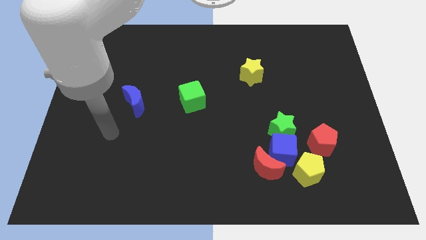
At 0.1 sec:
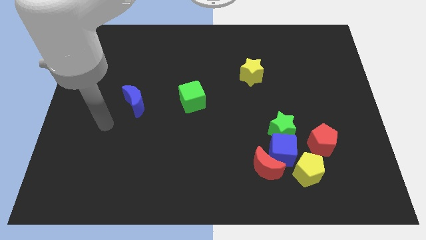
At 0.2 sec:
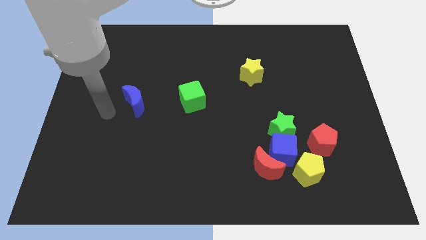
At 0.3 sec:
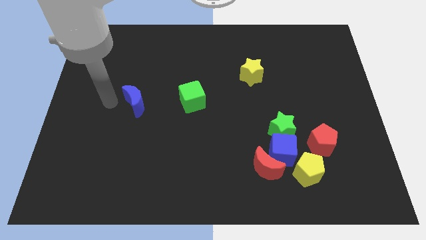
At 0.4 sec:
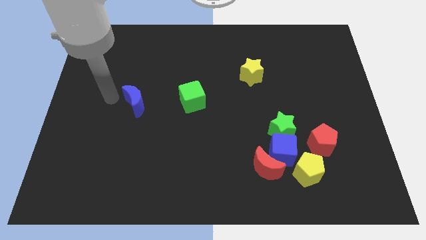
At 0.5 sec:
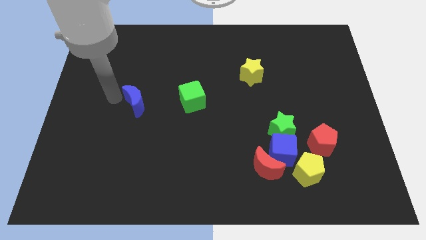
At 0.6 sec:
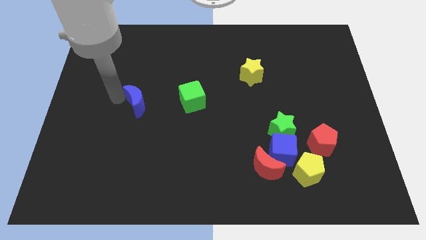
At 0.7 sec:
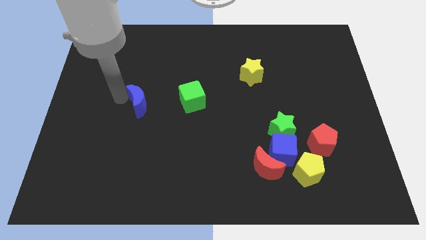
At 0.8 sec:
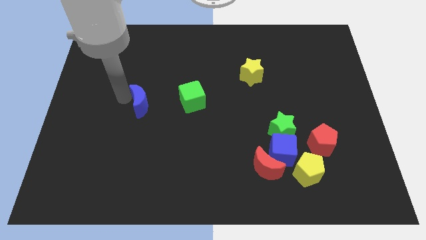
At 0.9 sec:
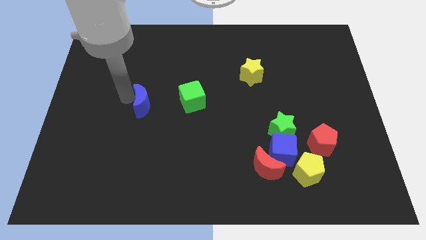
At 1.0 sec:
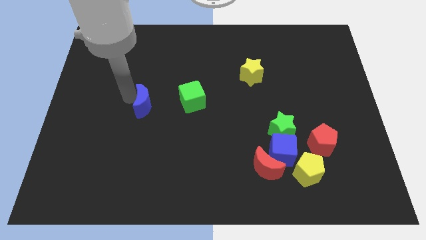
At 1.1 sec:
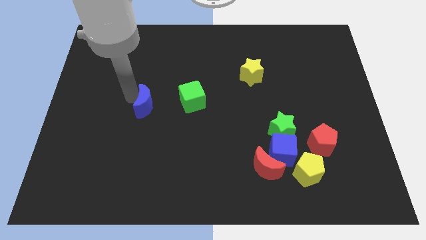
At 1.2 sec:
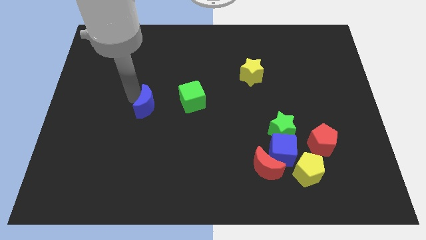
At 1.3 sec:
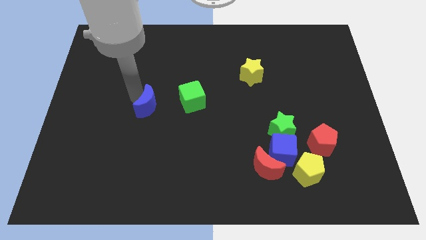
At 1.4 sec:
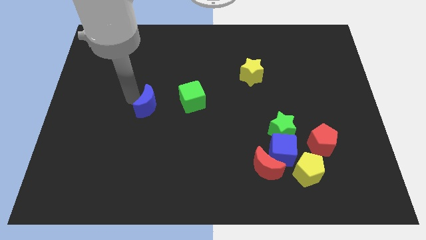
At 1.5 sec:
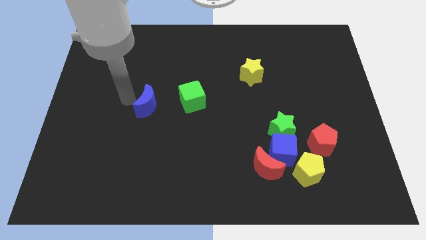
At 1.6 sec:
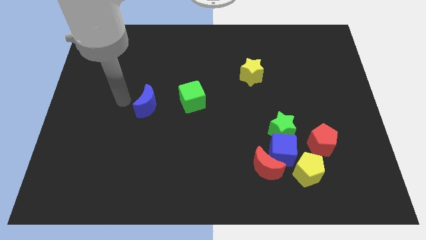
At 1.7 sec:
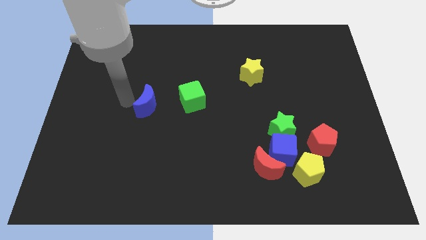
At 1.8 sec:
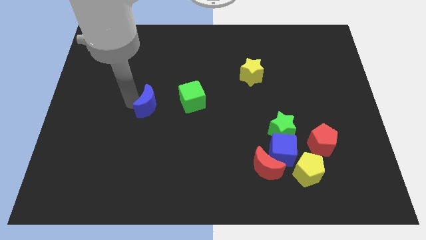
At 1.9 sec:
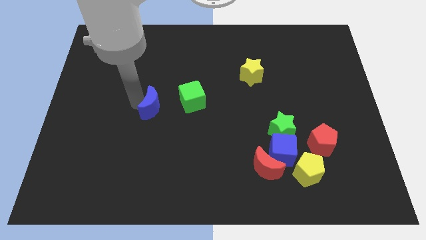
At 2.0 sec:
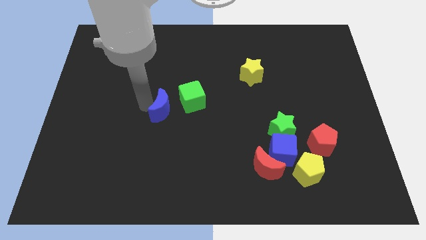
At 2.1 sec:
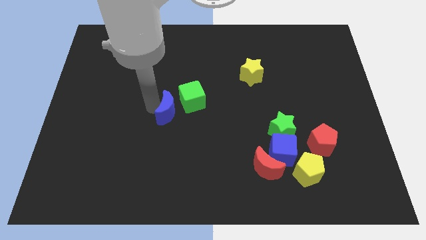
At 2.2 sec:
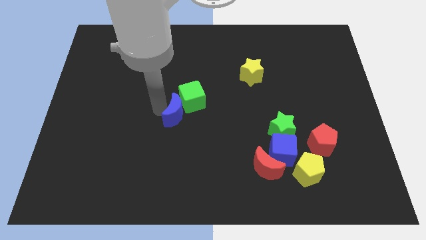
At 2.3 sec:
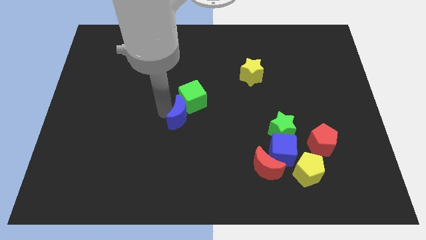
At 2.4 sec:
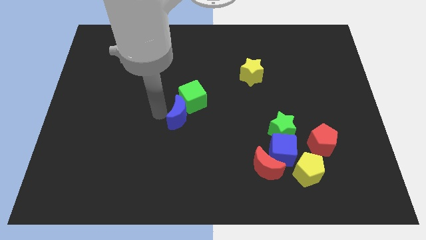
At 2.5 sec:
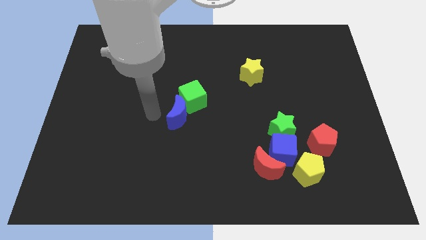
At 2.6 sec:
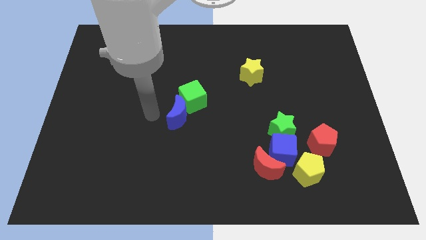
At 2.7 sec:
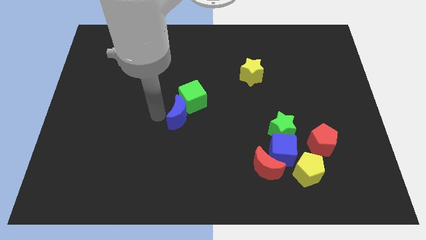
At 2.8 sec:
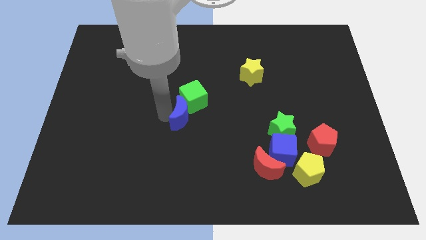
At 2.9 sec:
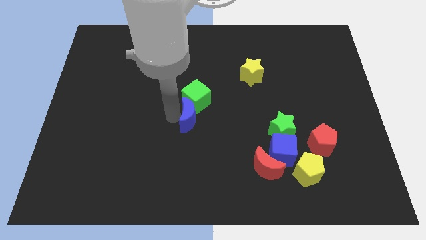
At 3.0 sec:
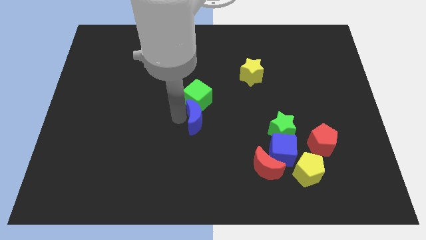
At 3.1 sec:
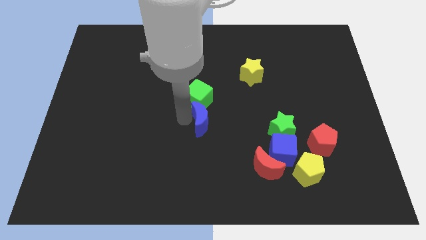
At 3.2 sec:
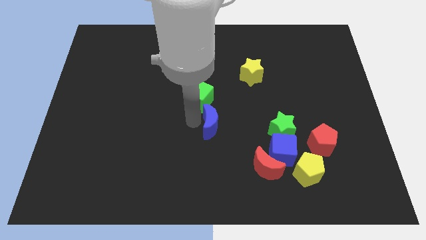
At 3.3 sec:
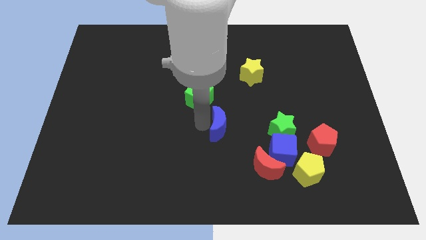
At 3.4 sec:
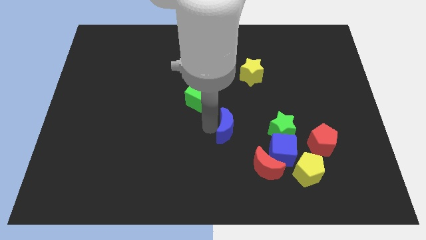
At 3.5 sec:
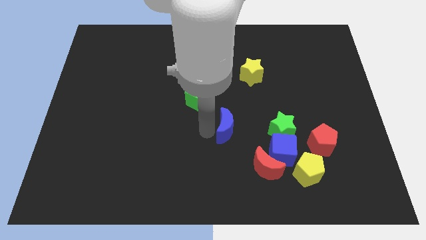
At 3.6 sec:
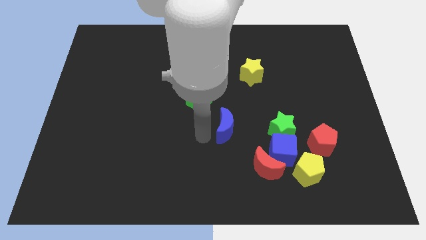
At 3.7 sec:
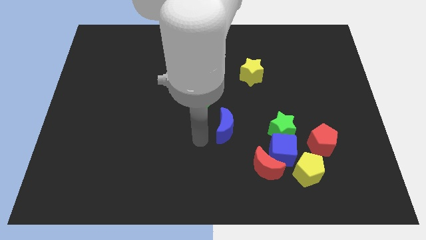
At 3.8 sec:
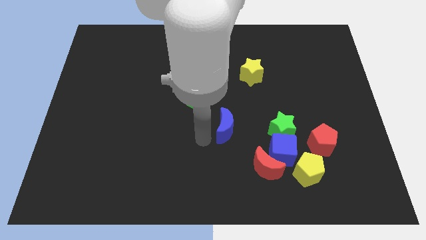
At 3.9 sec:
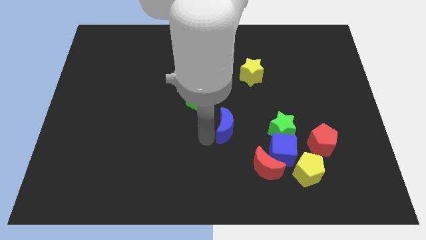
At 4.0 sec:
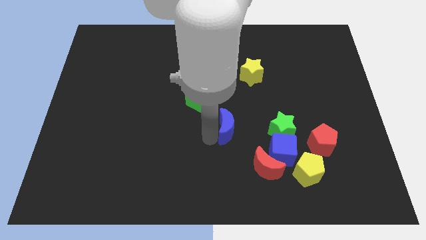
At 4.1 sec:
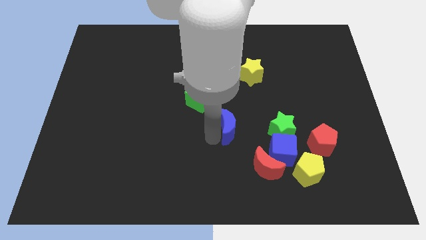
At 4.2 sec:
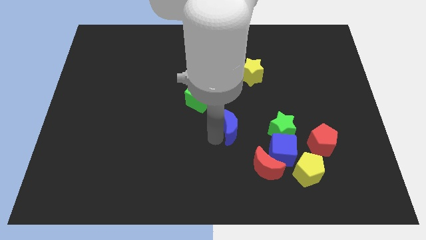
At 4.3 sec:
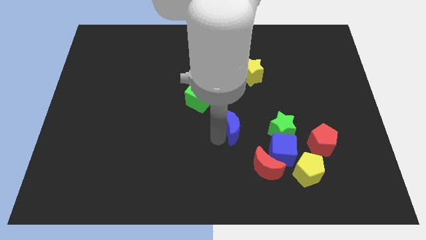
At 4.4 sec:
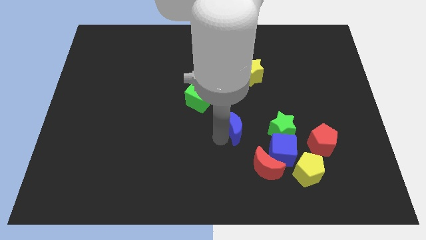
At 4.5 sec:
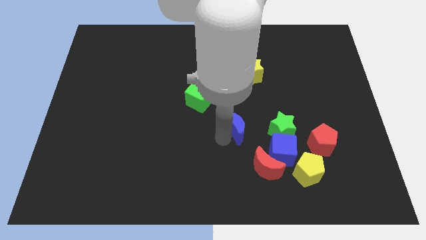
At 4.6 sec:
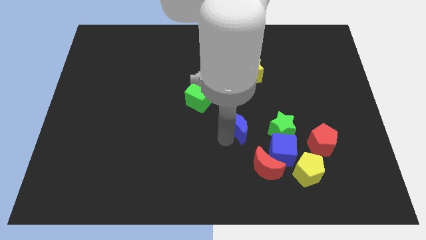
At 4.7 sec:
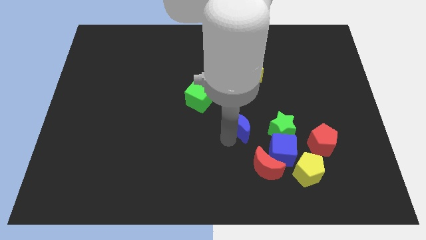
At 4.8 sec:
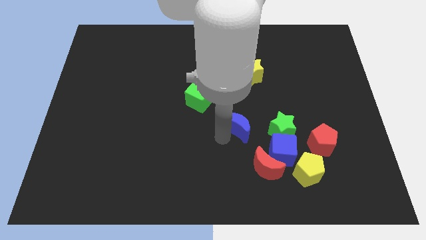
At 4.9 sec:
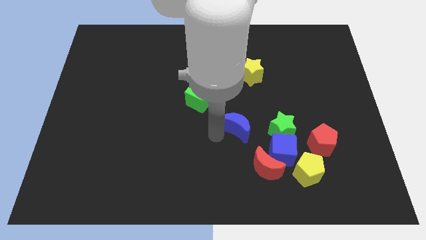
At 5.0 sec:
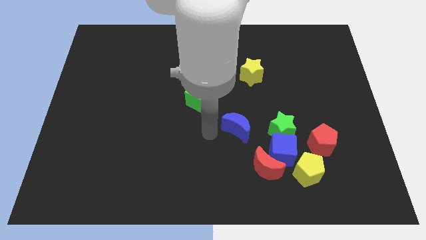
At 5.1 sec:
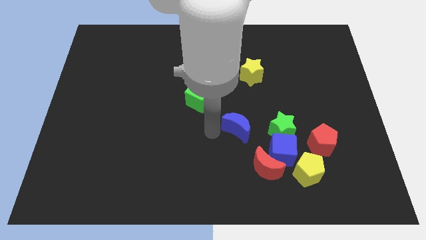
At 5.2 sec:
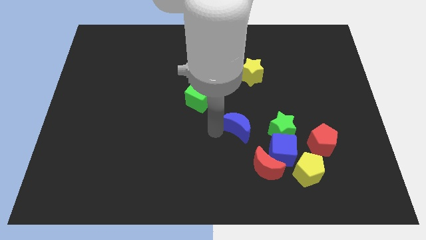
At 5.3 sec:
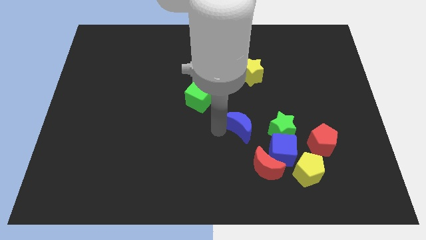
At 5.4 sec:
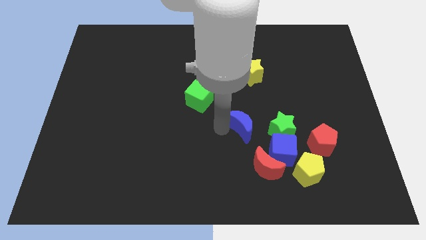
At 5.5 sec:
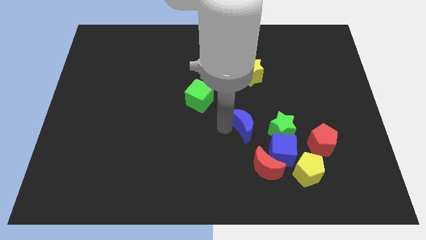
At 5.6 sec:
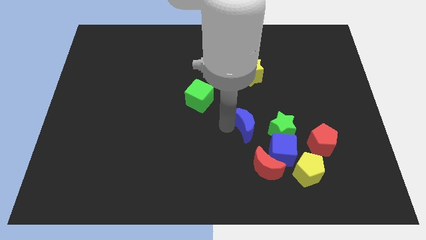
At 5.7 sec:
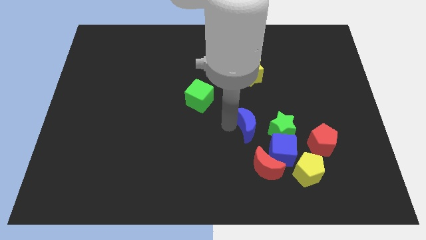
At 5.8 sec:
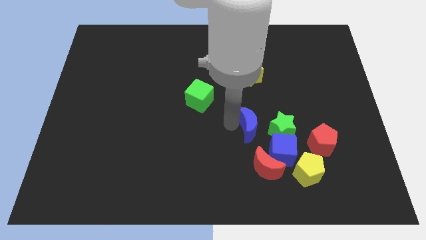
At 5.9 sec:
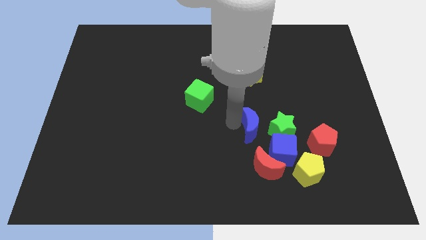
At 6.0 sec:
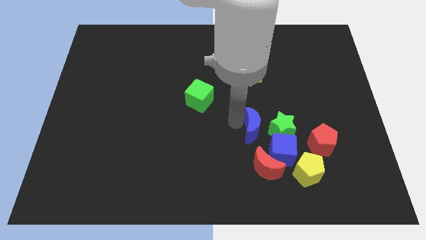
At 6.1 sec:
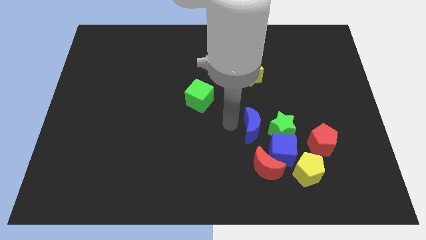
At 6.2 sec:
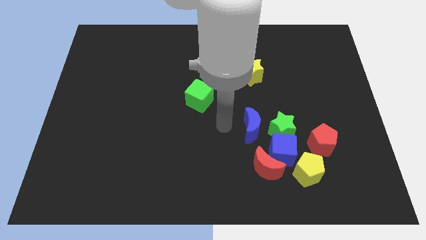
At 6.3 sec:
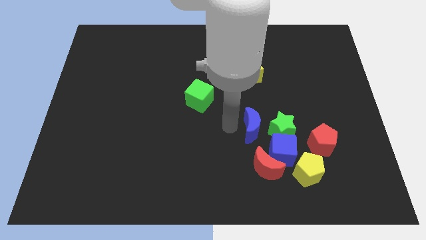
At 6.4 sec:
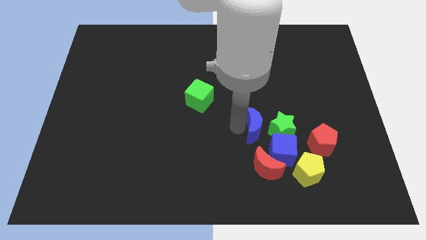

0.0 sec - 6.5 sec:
push the blue moon to the green star

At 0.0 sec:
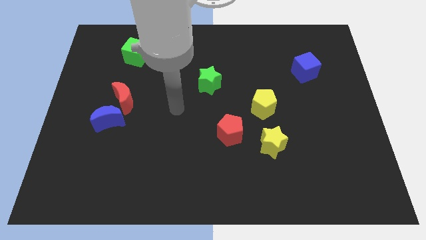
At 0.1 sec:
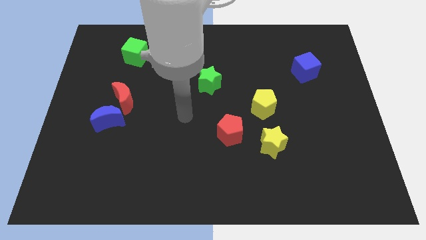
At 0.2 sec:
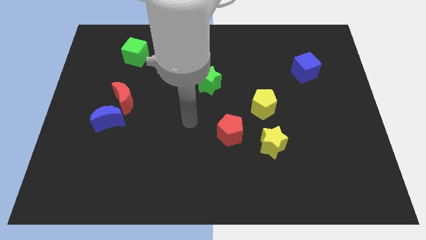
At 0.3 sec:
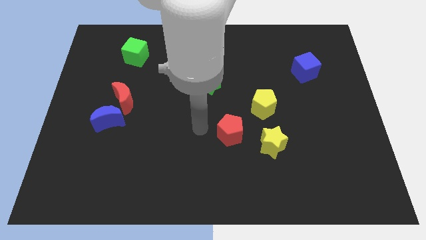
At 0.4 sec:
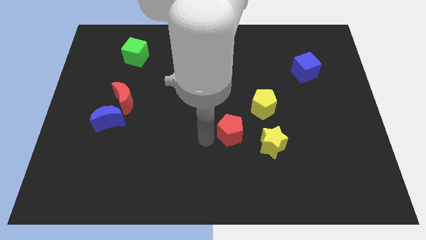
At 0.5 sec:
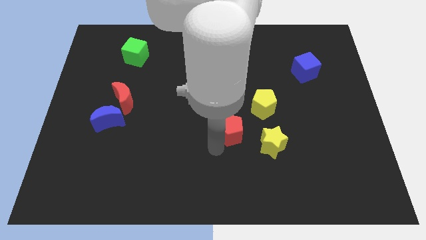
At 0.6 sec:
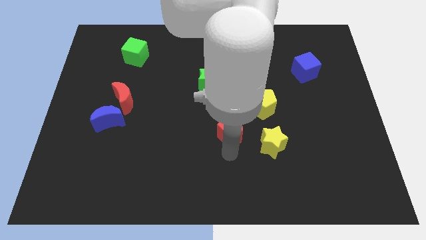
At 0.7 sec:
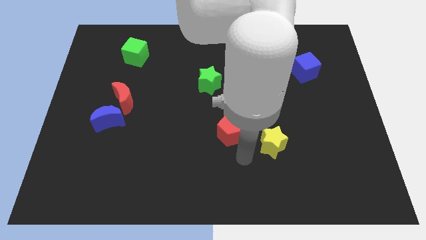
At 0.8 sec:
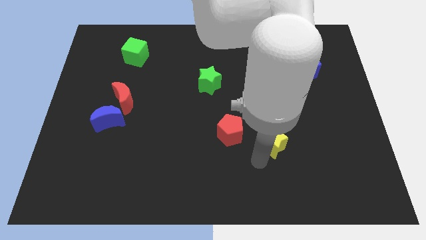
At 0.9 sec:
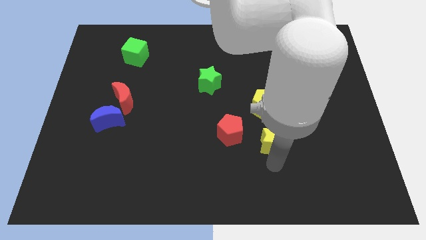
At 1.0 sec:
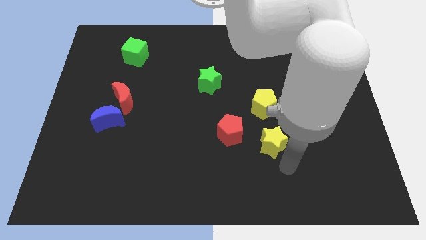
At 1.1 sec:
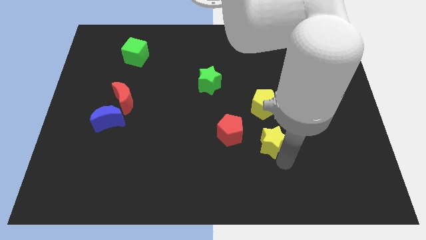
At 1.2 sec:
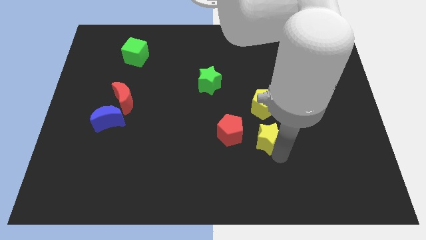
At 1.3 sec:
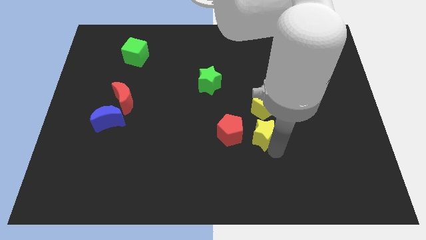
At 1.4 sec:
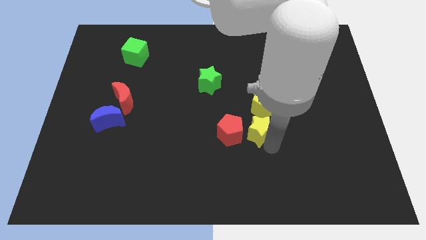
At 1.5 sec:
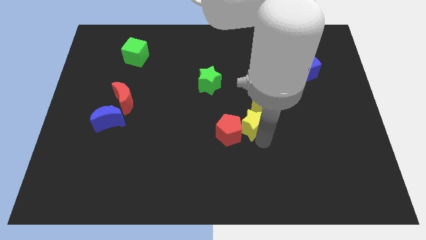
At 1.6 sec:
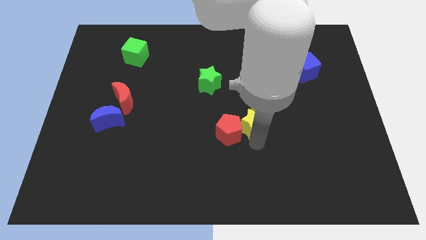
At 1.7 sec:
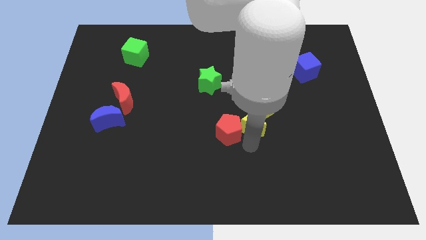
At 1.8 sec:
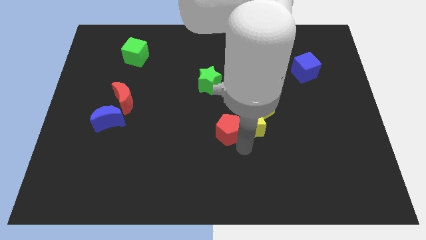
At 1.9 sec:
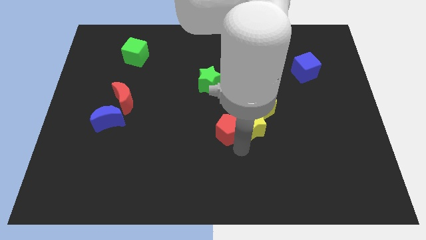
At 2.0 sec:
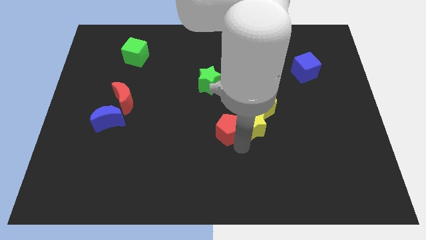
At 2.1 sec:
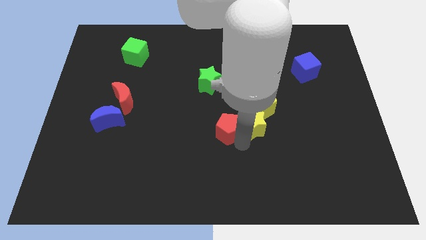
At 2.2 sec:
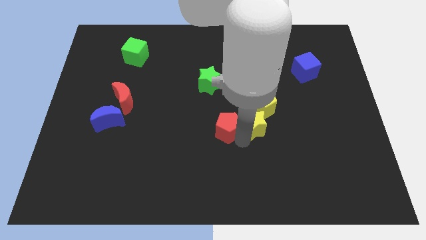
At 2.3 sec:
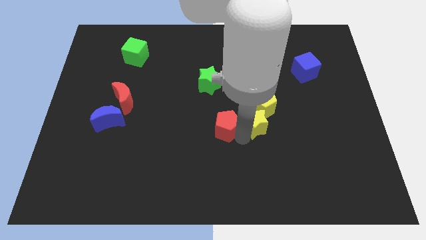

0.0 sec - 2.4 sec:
push the yellow star towards the yellow pentagon
